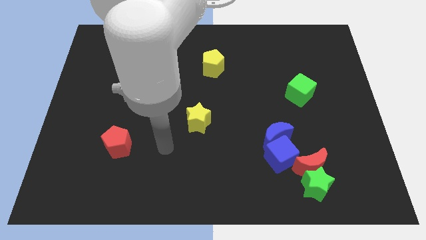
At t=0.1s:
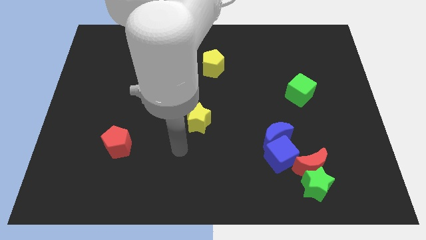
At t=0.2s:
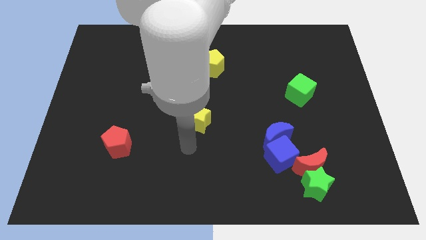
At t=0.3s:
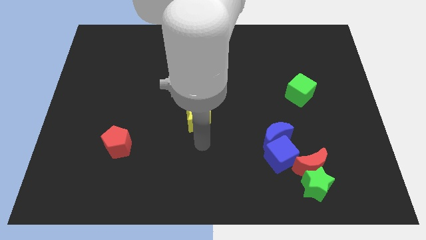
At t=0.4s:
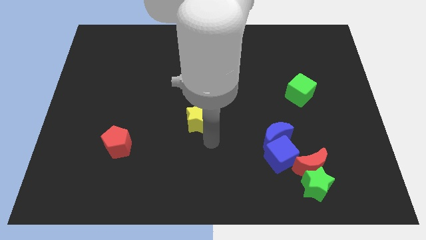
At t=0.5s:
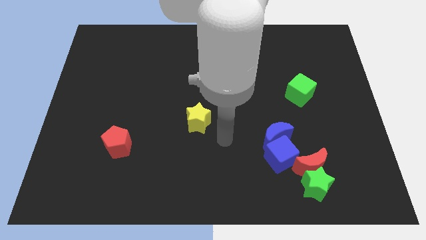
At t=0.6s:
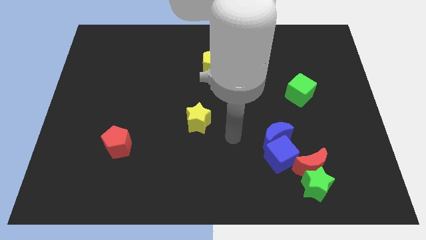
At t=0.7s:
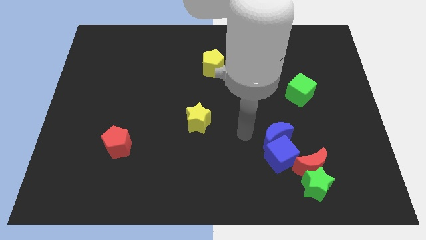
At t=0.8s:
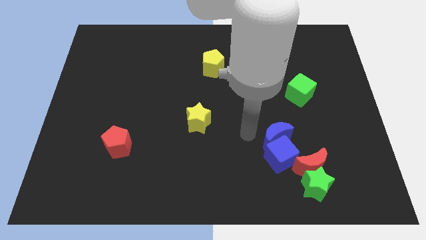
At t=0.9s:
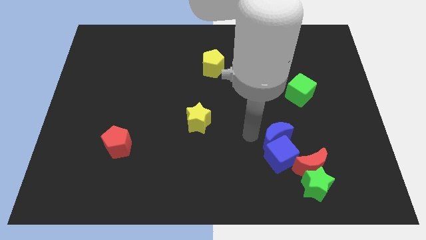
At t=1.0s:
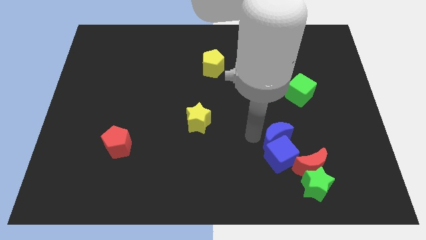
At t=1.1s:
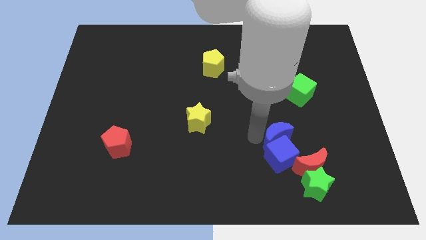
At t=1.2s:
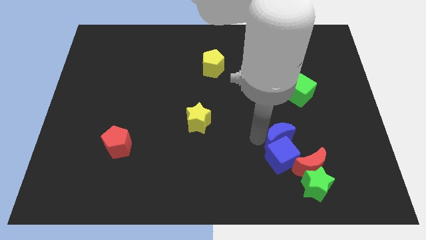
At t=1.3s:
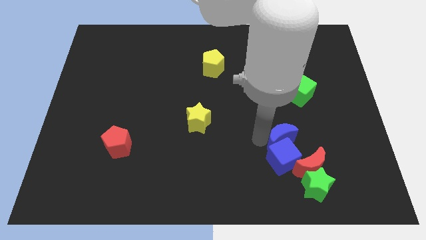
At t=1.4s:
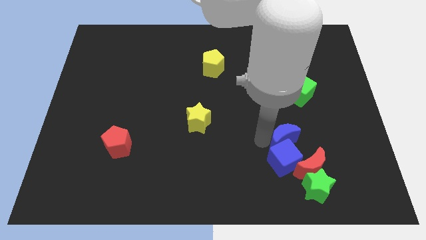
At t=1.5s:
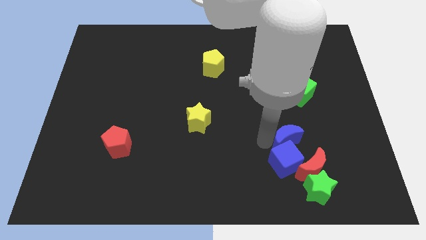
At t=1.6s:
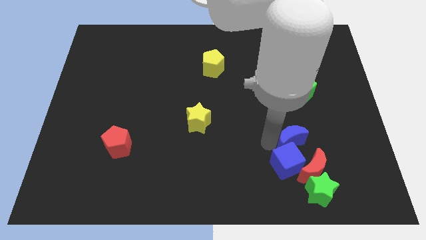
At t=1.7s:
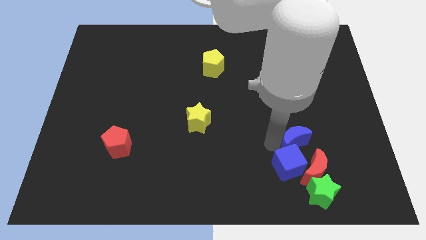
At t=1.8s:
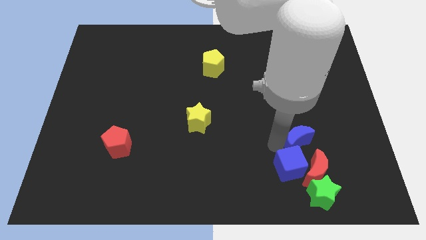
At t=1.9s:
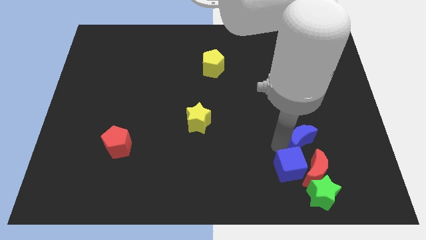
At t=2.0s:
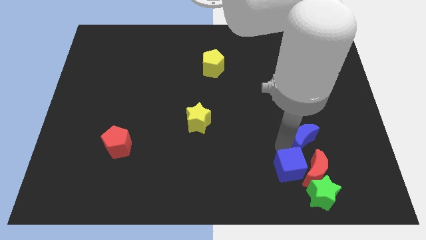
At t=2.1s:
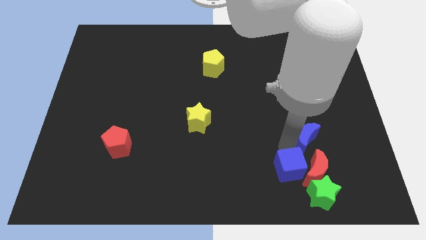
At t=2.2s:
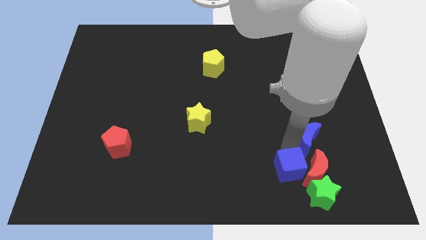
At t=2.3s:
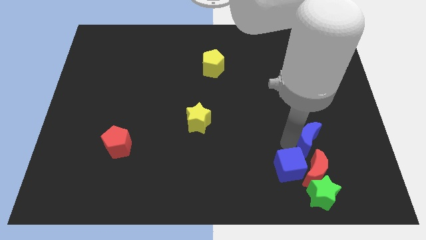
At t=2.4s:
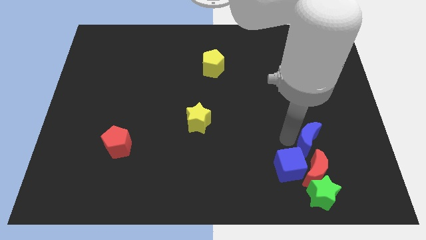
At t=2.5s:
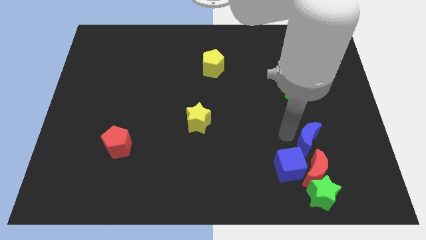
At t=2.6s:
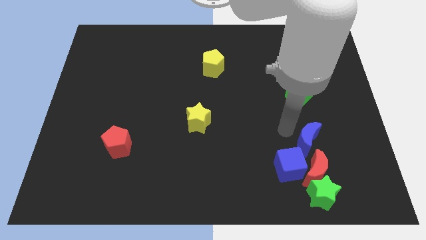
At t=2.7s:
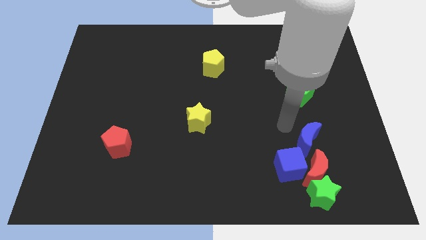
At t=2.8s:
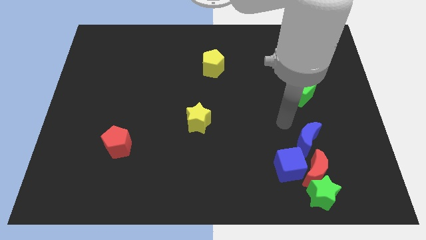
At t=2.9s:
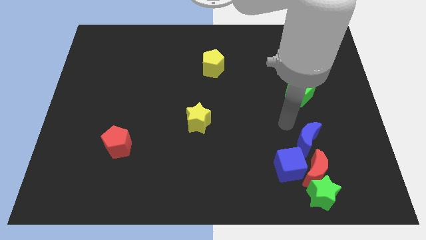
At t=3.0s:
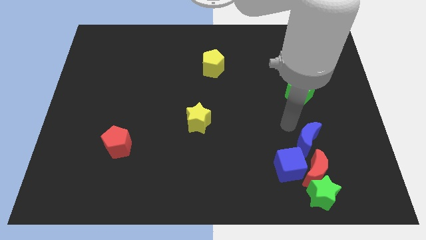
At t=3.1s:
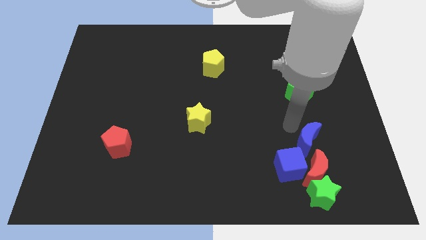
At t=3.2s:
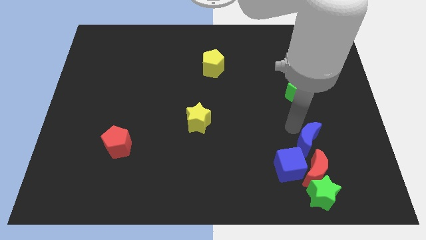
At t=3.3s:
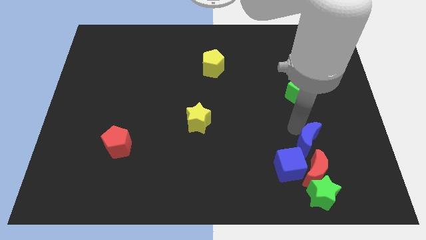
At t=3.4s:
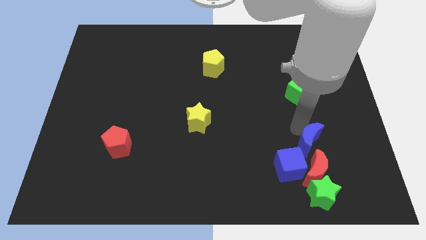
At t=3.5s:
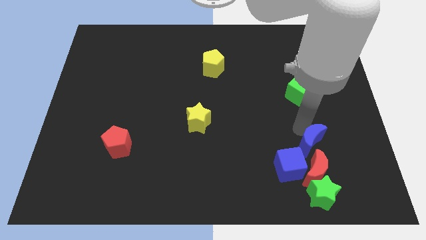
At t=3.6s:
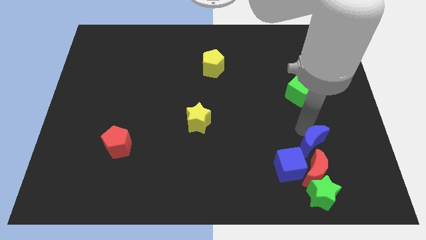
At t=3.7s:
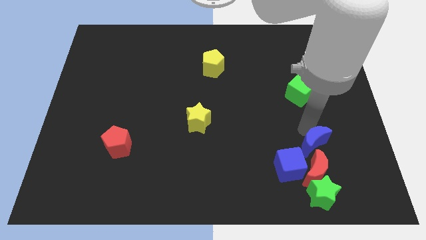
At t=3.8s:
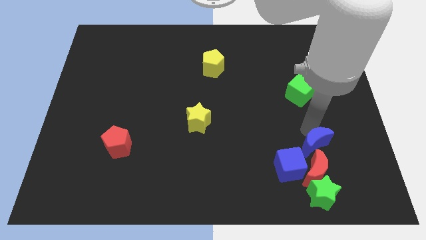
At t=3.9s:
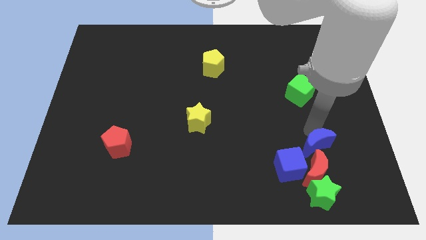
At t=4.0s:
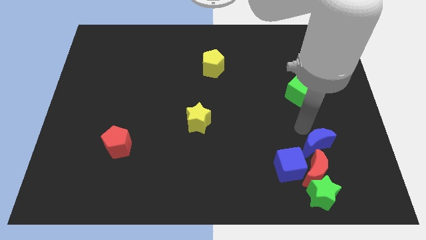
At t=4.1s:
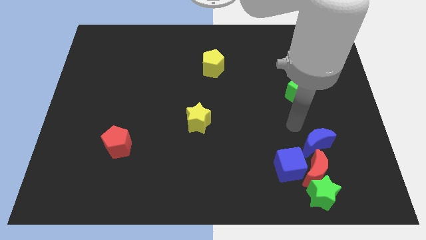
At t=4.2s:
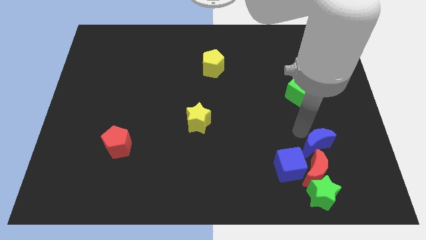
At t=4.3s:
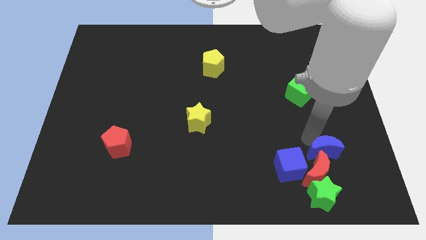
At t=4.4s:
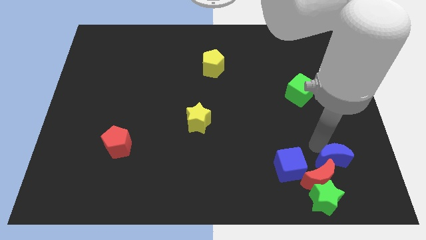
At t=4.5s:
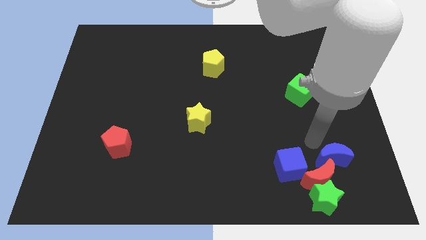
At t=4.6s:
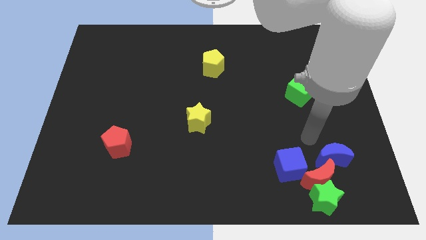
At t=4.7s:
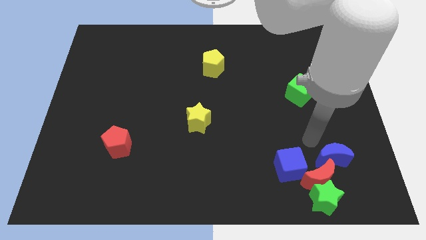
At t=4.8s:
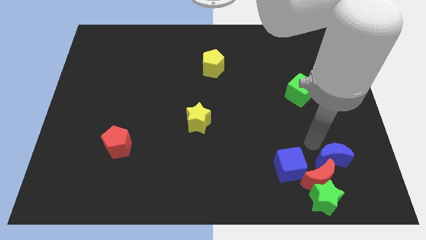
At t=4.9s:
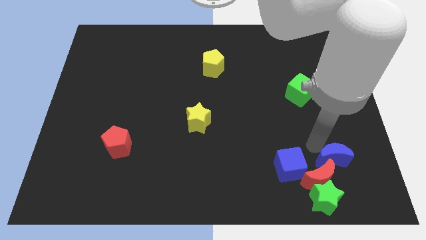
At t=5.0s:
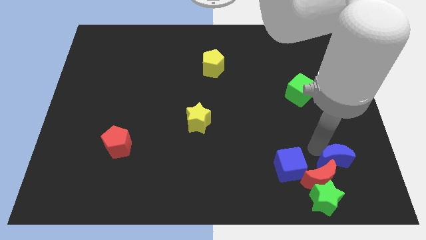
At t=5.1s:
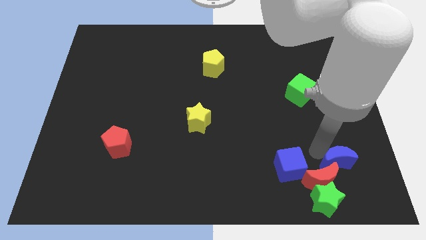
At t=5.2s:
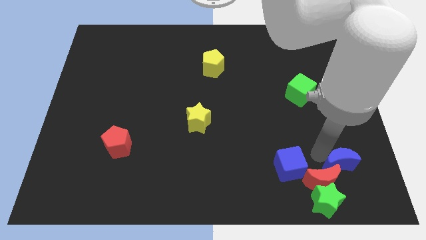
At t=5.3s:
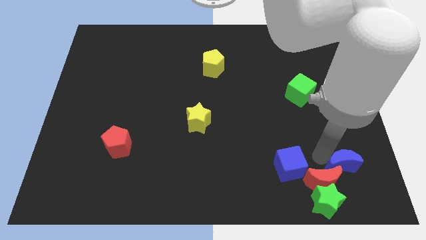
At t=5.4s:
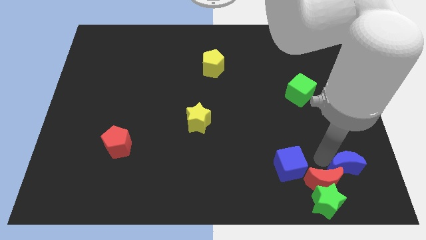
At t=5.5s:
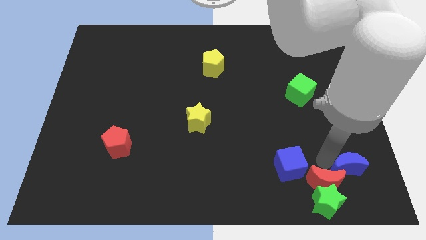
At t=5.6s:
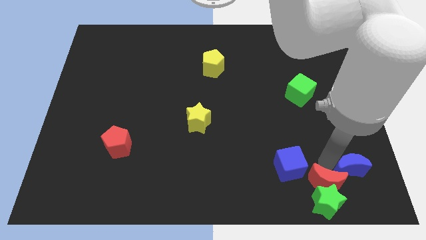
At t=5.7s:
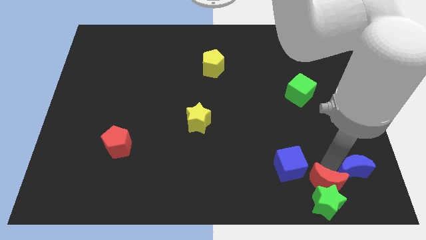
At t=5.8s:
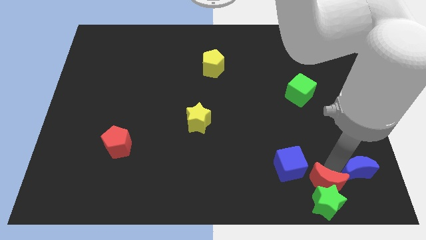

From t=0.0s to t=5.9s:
move the blue moon to the bottom right
